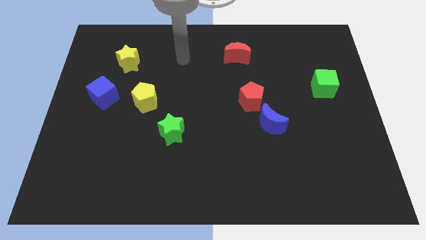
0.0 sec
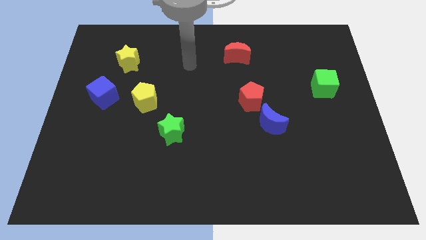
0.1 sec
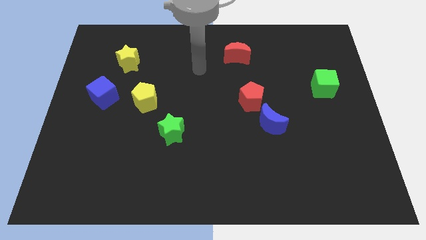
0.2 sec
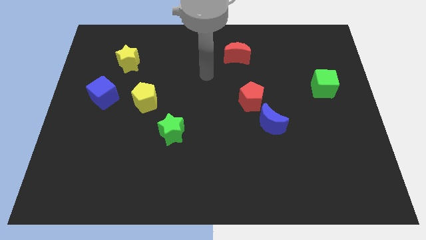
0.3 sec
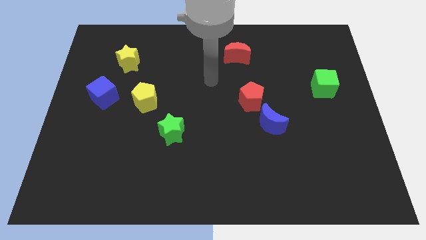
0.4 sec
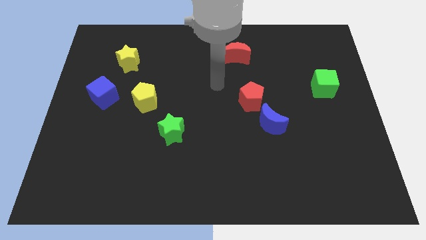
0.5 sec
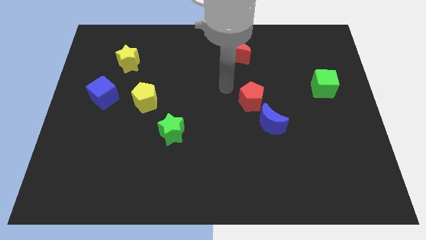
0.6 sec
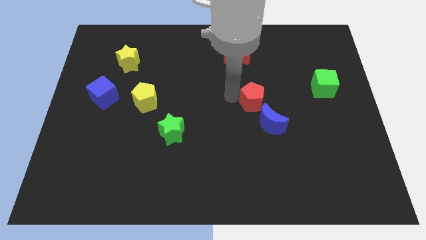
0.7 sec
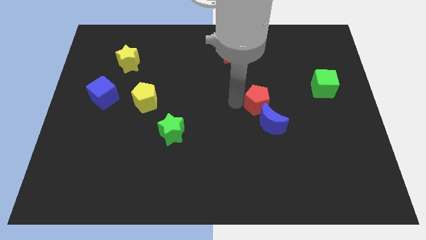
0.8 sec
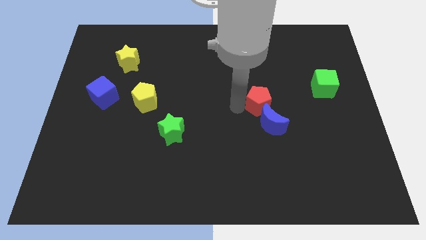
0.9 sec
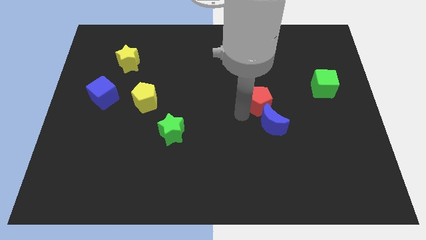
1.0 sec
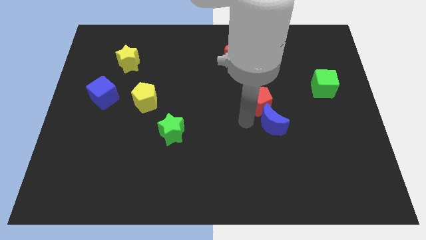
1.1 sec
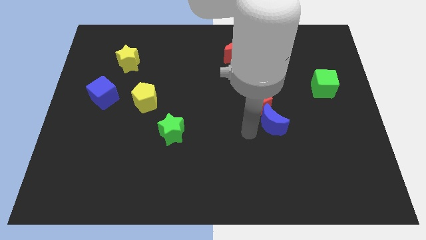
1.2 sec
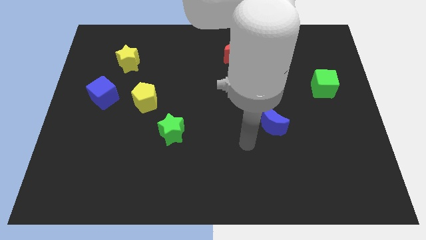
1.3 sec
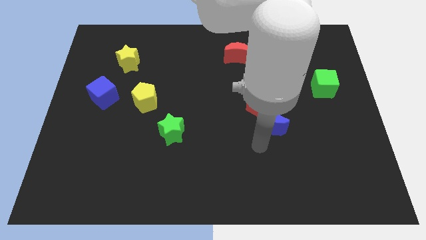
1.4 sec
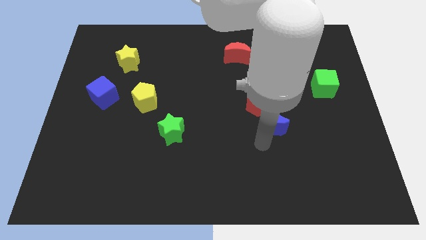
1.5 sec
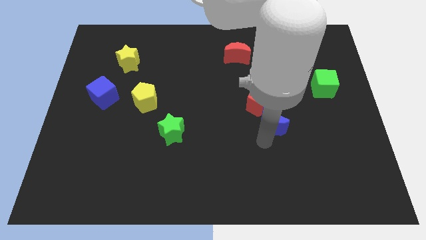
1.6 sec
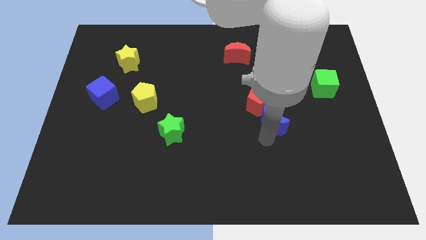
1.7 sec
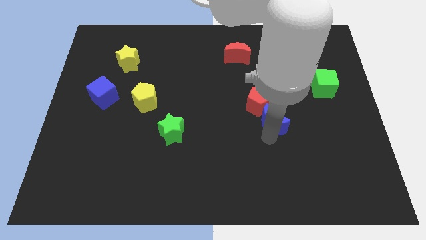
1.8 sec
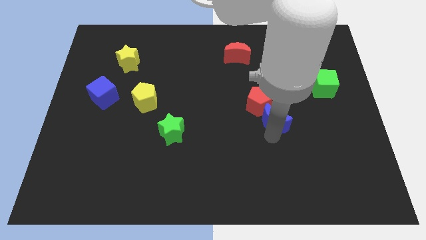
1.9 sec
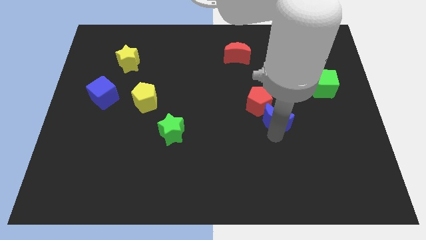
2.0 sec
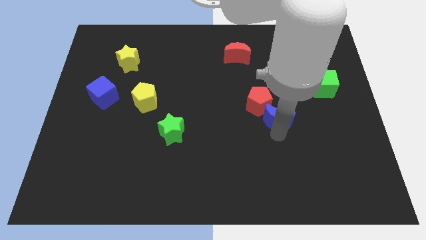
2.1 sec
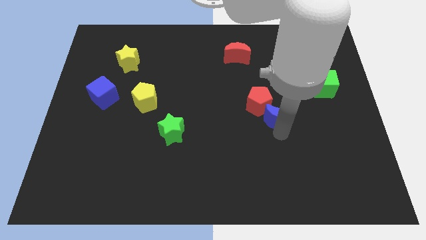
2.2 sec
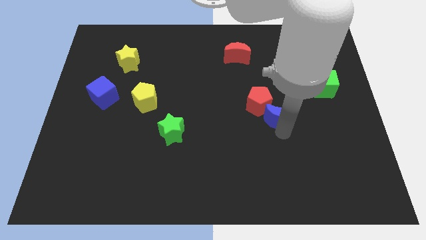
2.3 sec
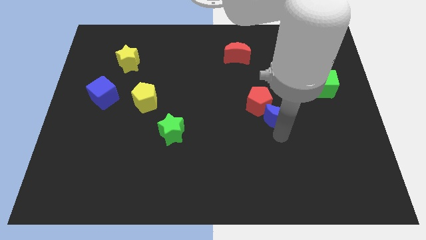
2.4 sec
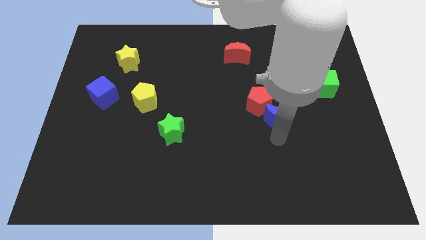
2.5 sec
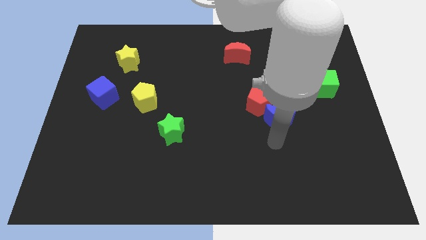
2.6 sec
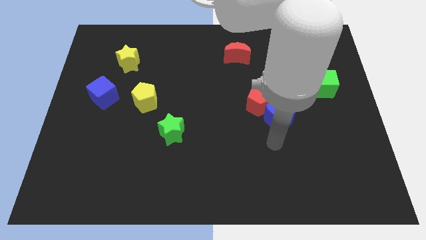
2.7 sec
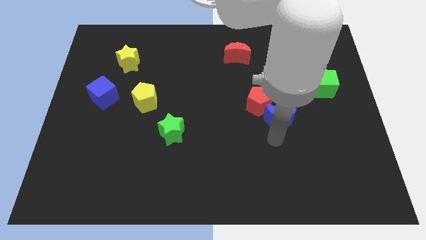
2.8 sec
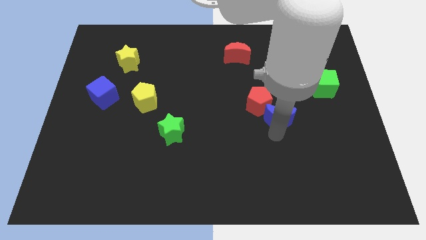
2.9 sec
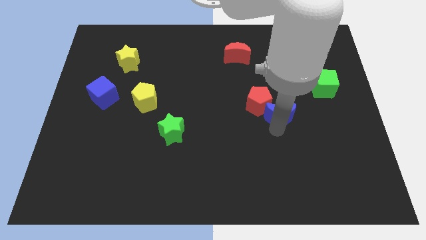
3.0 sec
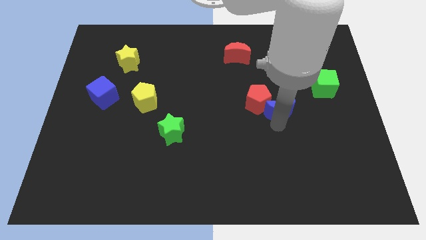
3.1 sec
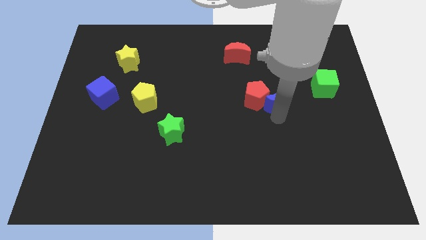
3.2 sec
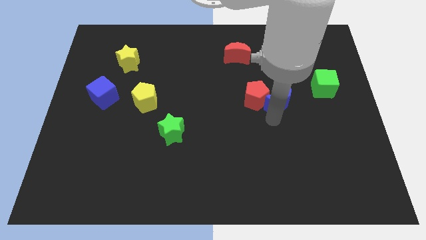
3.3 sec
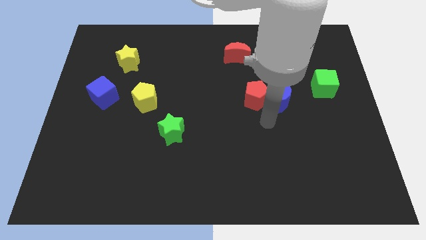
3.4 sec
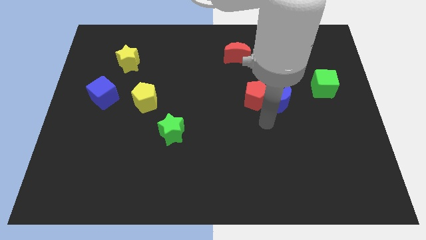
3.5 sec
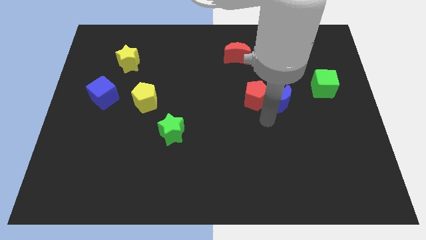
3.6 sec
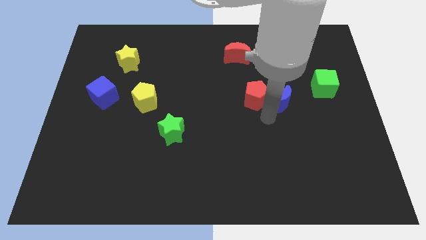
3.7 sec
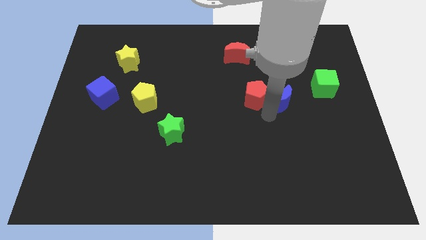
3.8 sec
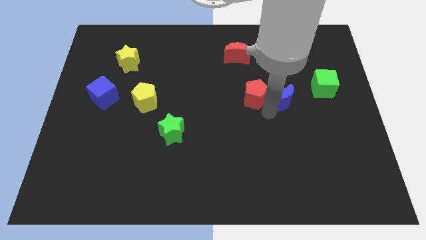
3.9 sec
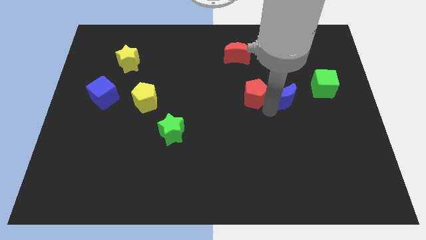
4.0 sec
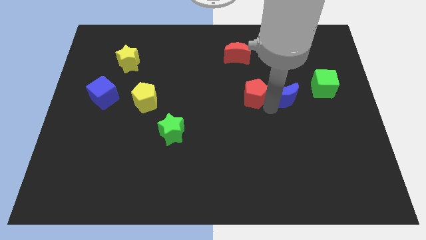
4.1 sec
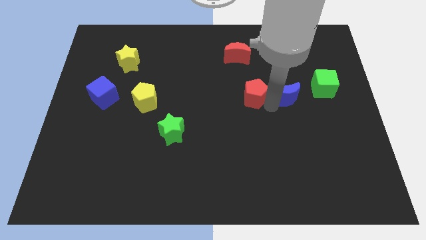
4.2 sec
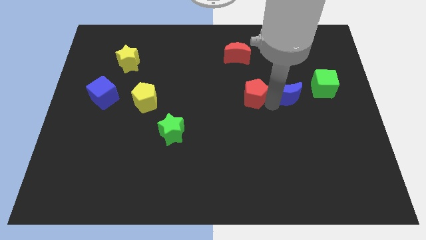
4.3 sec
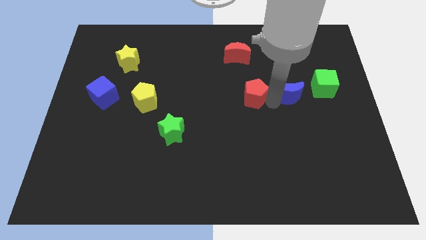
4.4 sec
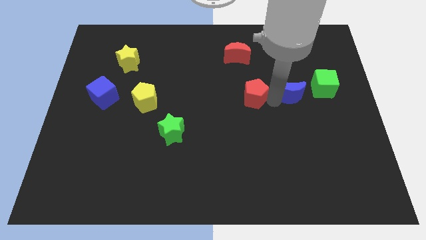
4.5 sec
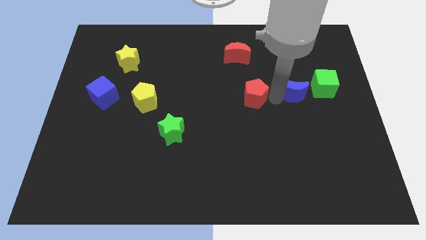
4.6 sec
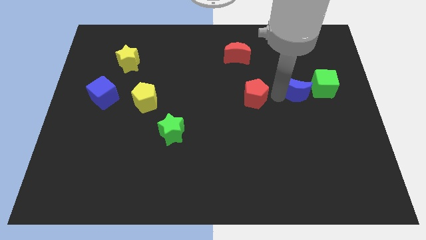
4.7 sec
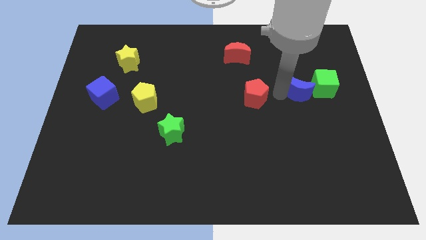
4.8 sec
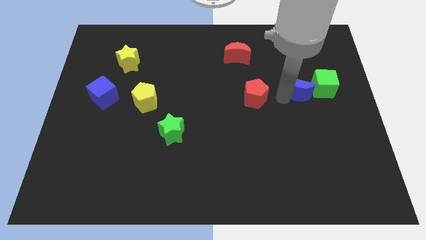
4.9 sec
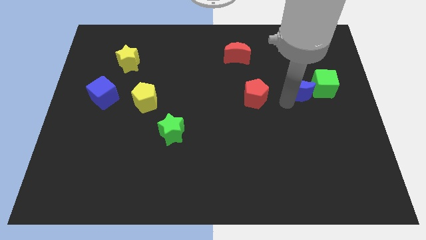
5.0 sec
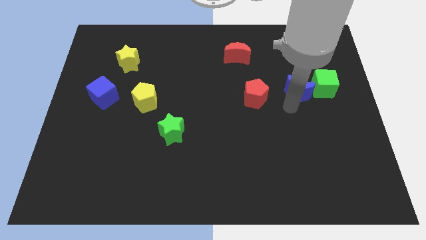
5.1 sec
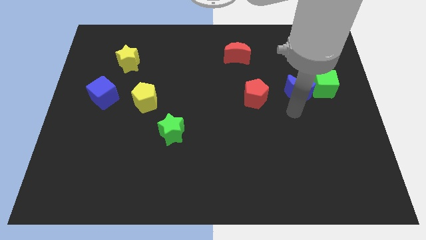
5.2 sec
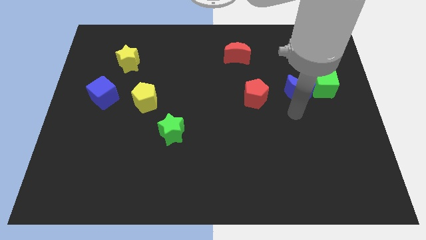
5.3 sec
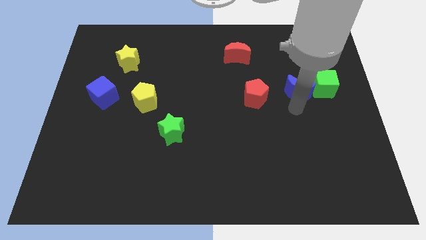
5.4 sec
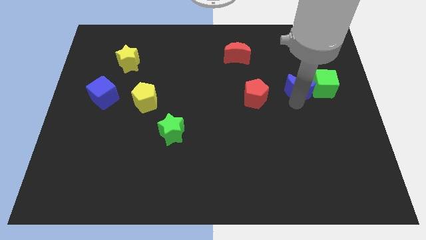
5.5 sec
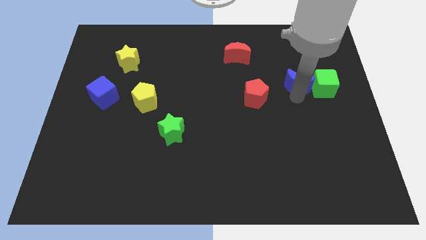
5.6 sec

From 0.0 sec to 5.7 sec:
move the blue moon diagonally up and to the left of the green cube

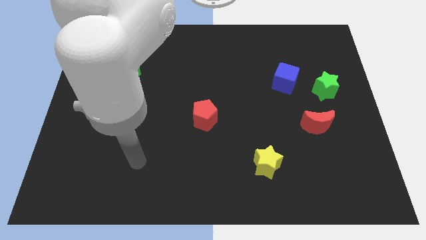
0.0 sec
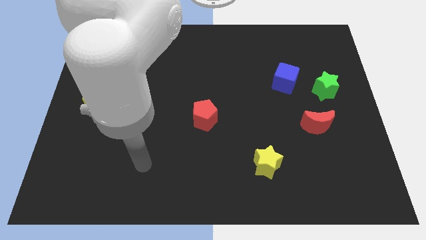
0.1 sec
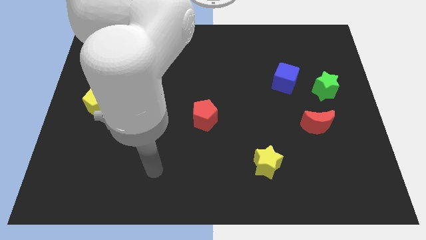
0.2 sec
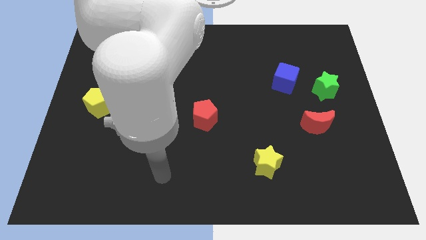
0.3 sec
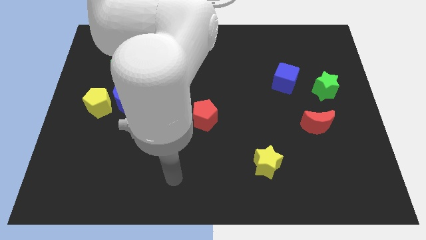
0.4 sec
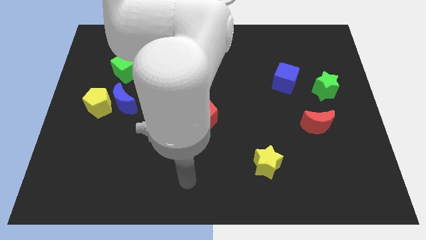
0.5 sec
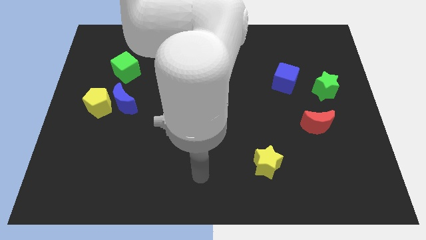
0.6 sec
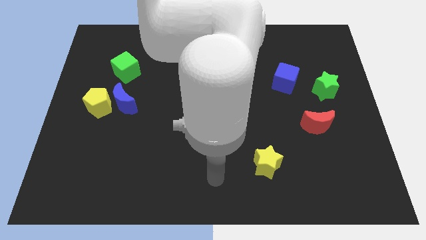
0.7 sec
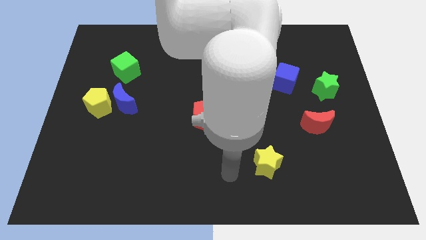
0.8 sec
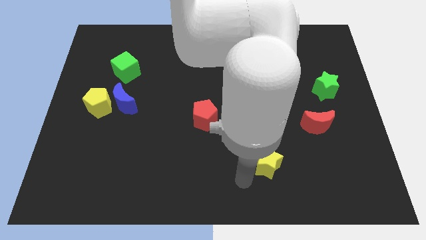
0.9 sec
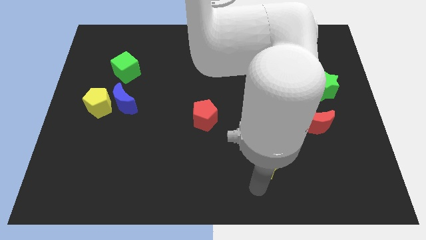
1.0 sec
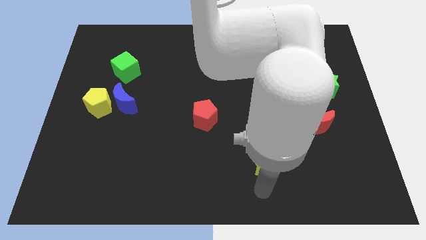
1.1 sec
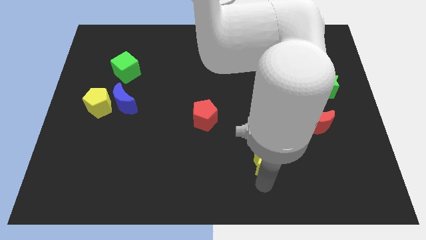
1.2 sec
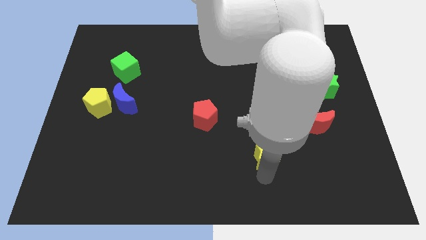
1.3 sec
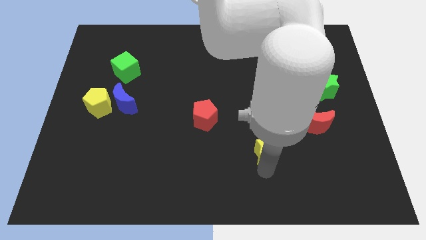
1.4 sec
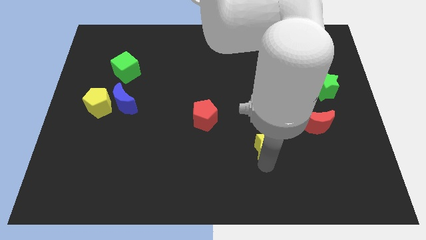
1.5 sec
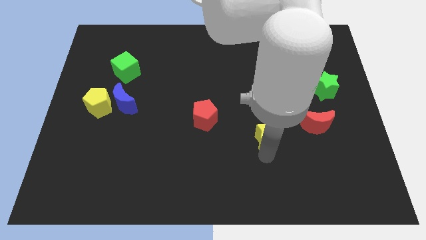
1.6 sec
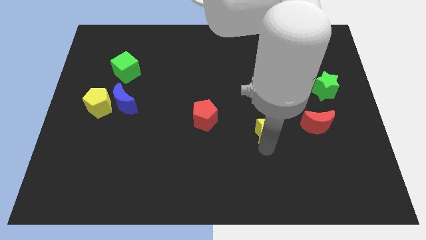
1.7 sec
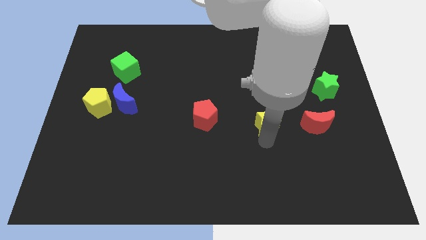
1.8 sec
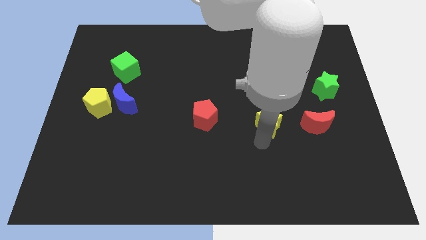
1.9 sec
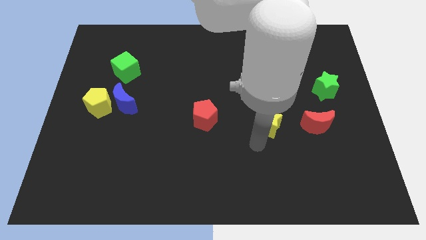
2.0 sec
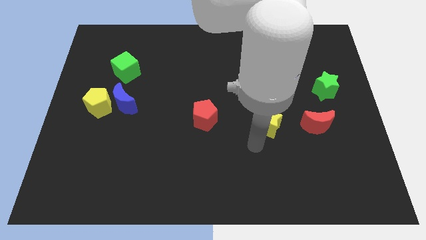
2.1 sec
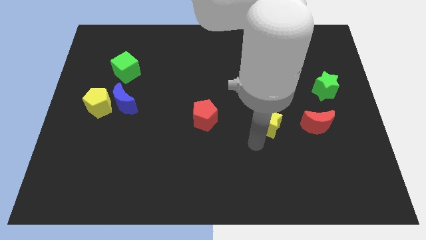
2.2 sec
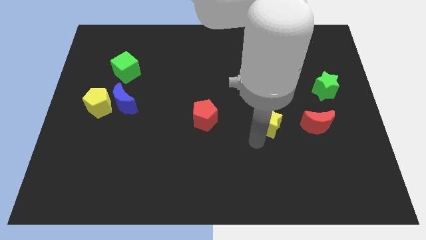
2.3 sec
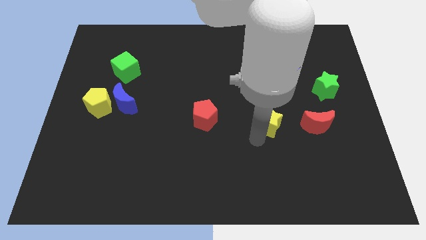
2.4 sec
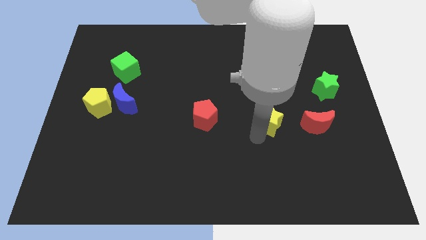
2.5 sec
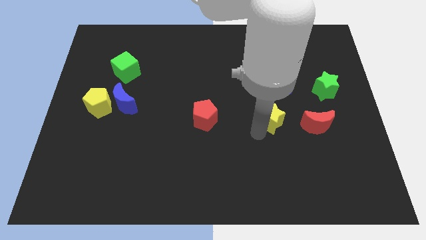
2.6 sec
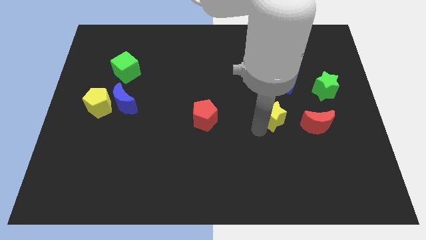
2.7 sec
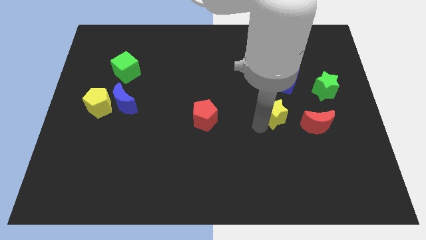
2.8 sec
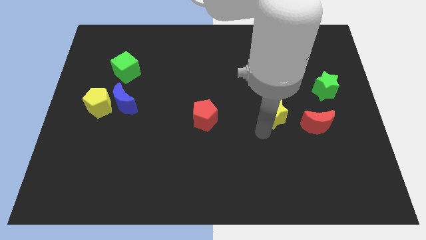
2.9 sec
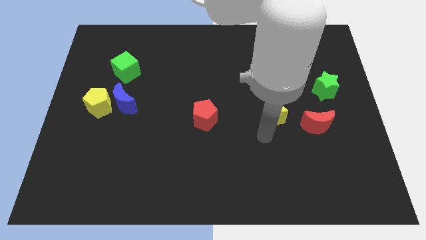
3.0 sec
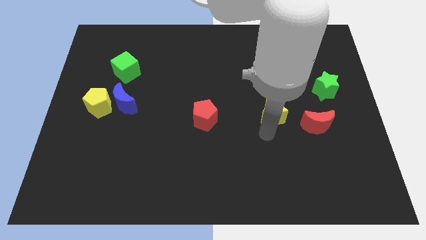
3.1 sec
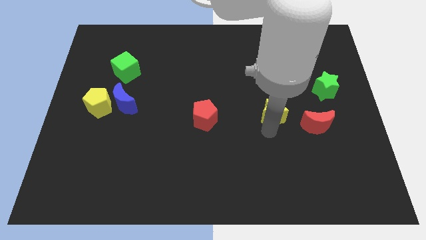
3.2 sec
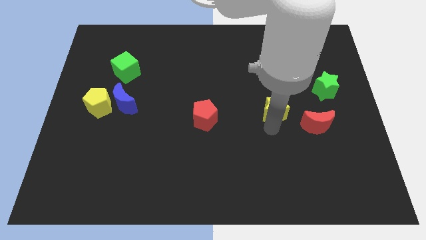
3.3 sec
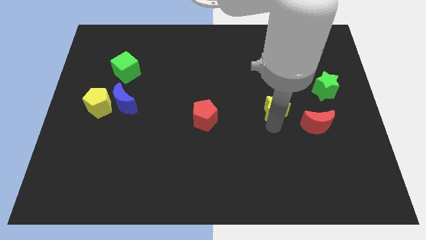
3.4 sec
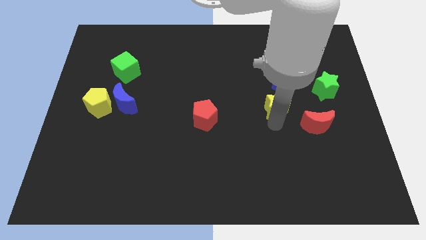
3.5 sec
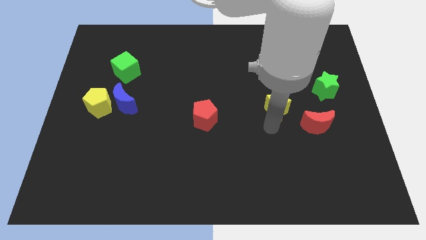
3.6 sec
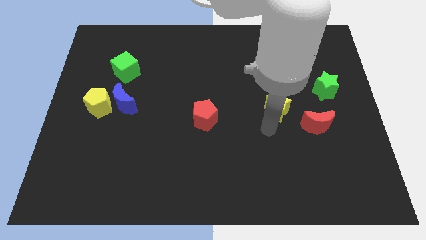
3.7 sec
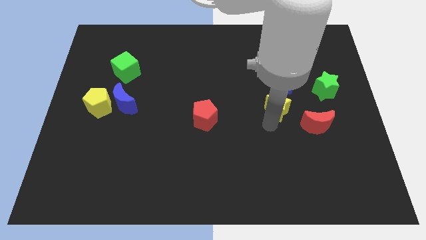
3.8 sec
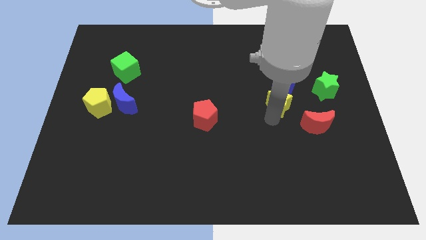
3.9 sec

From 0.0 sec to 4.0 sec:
put the yellow star left of the green star
